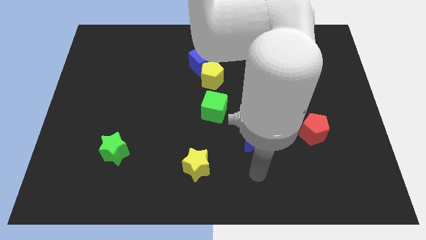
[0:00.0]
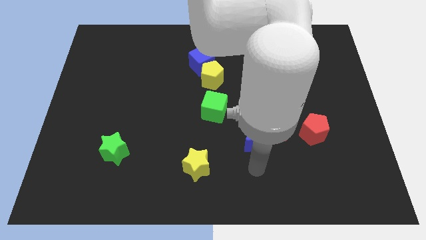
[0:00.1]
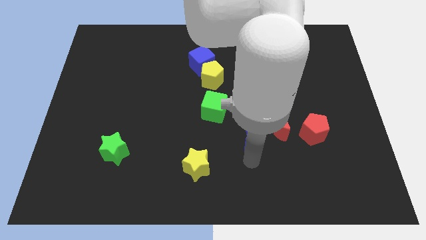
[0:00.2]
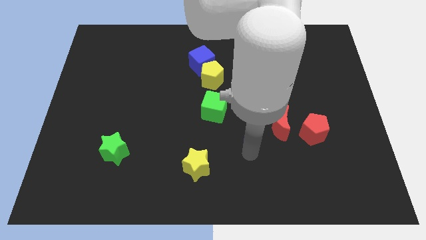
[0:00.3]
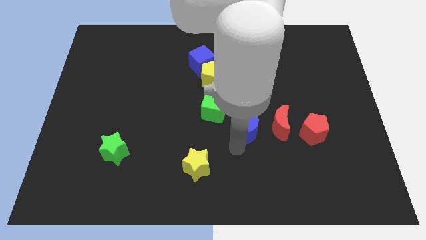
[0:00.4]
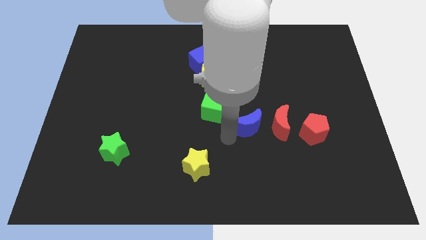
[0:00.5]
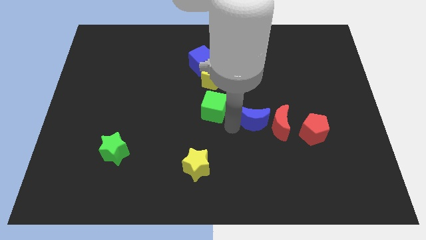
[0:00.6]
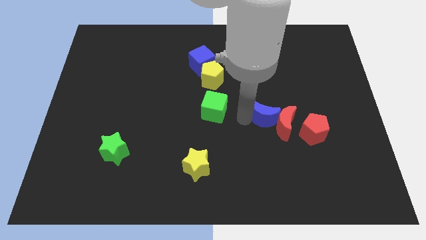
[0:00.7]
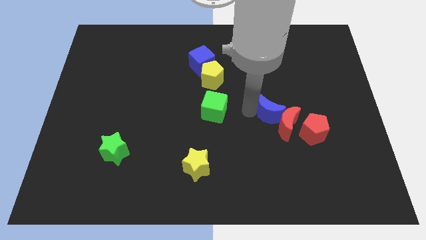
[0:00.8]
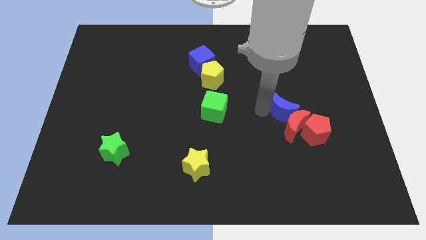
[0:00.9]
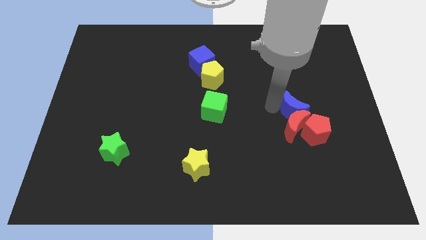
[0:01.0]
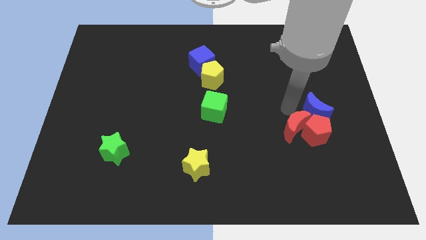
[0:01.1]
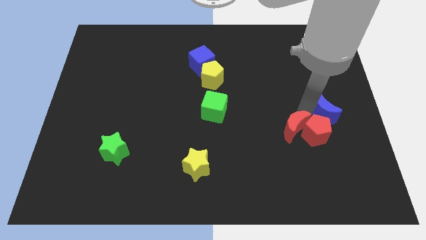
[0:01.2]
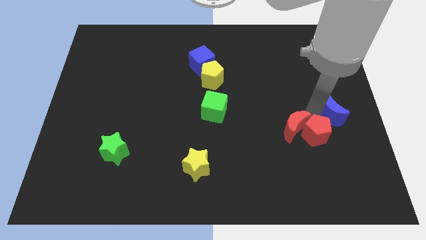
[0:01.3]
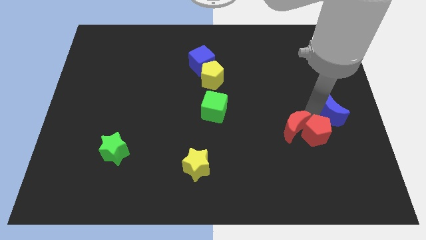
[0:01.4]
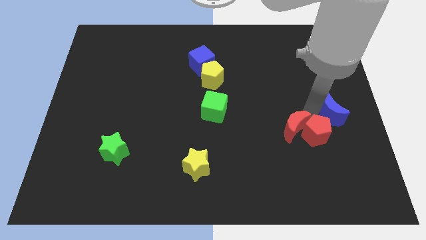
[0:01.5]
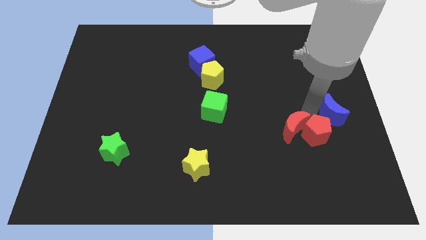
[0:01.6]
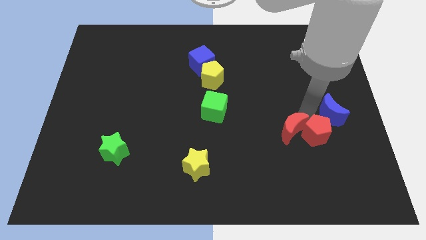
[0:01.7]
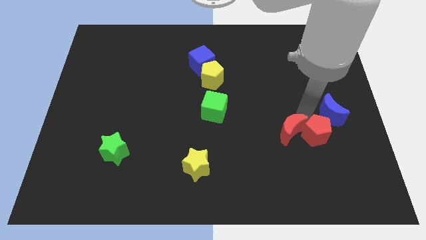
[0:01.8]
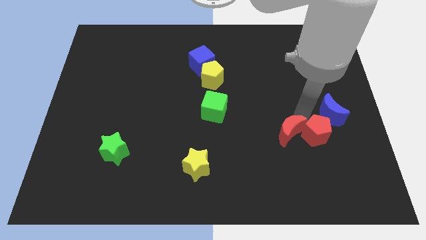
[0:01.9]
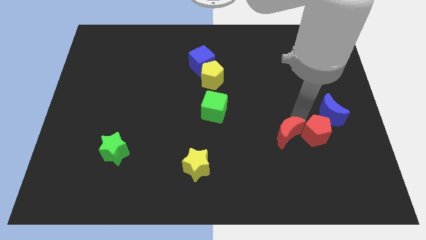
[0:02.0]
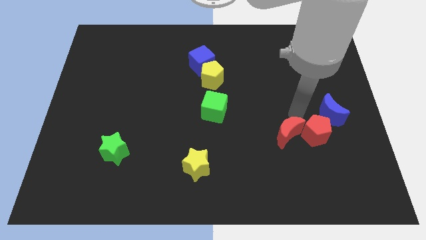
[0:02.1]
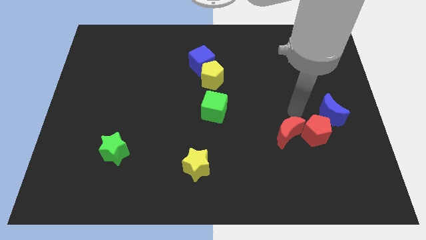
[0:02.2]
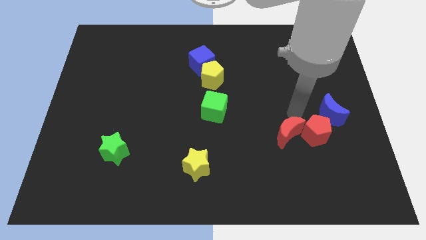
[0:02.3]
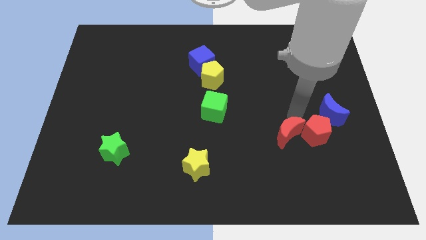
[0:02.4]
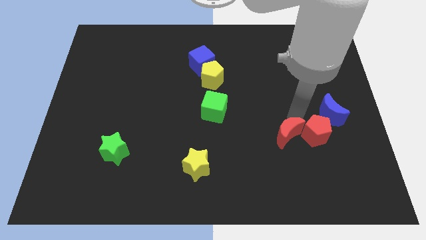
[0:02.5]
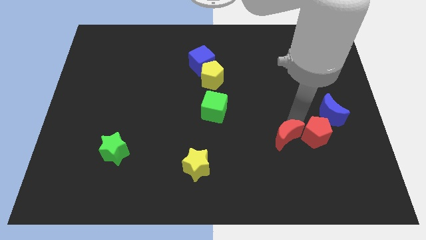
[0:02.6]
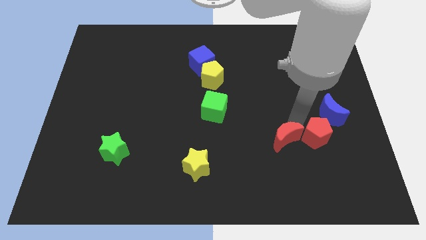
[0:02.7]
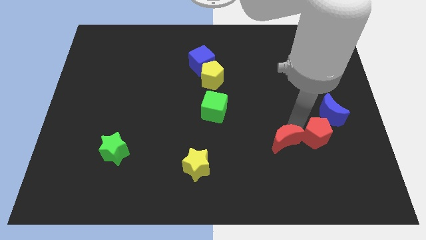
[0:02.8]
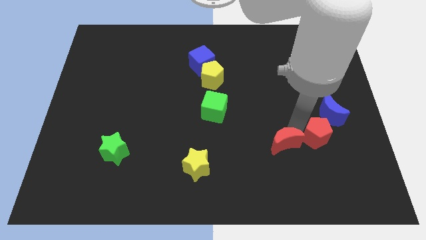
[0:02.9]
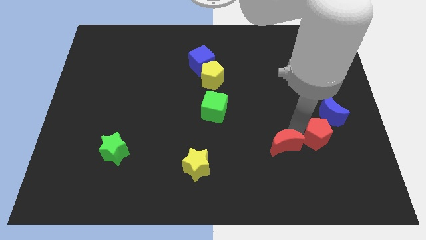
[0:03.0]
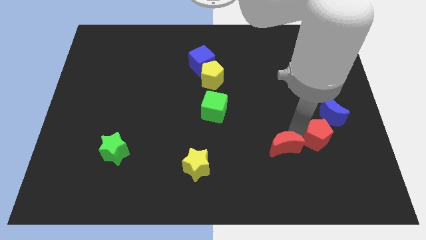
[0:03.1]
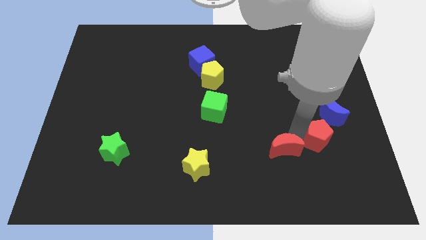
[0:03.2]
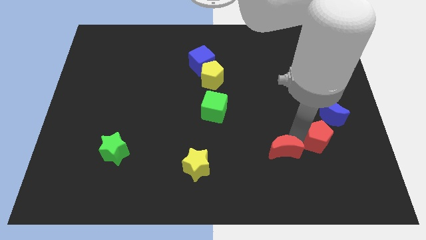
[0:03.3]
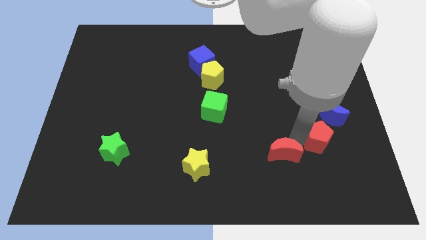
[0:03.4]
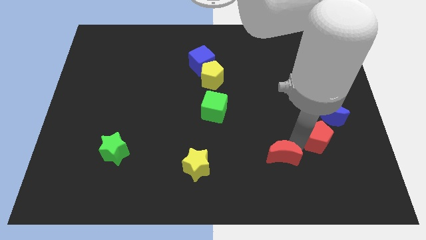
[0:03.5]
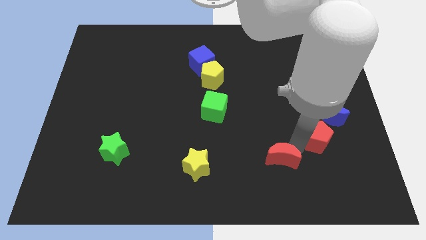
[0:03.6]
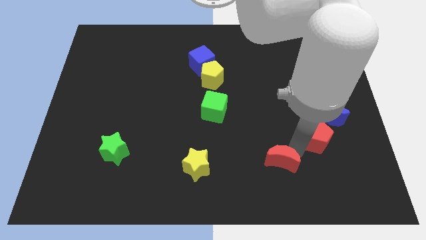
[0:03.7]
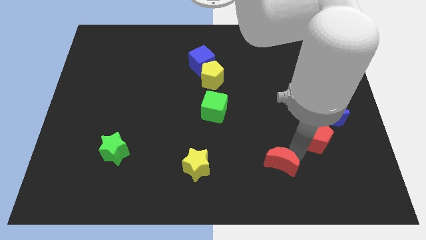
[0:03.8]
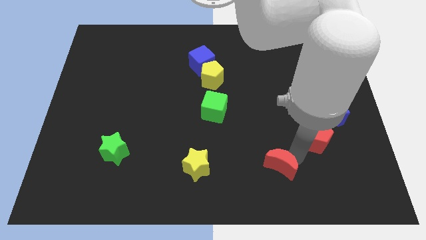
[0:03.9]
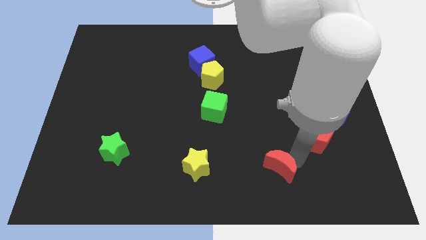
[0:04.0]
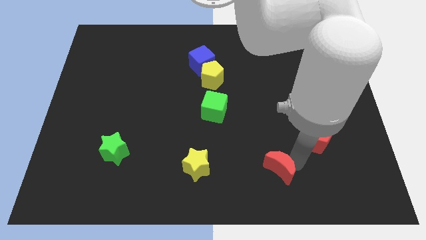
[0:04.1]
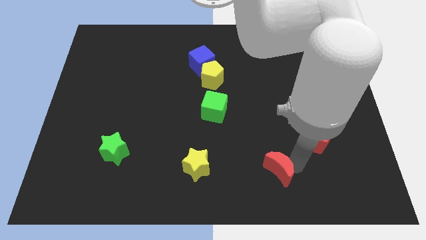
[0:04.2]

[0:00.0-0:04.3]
slightly slide the red moon downwards and left

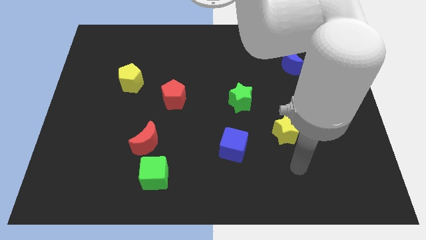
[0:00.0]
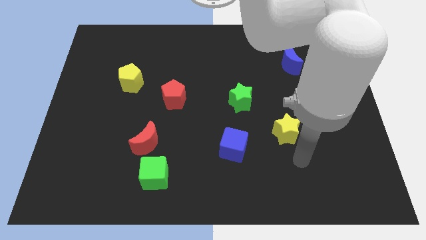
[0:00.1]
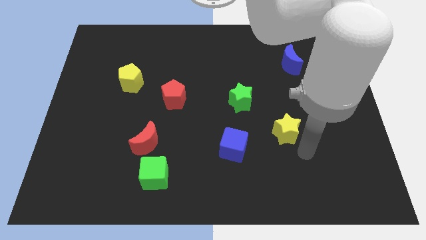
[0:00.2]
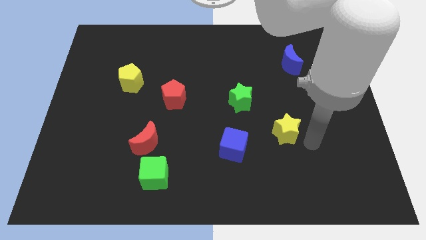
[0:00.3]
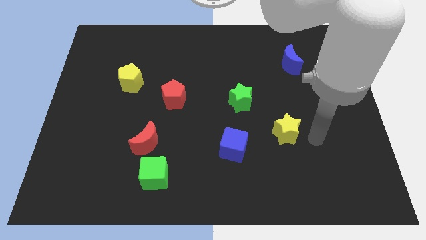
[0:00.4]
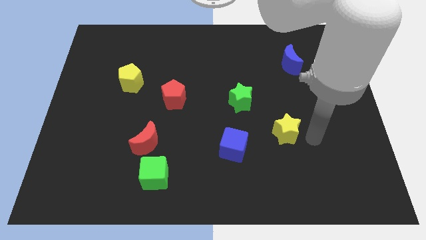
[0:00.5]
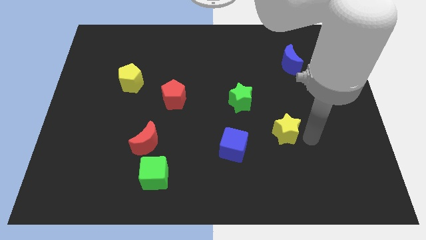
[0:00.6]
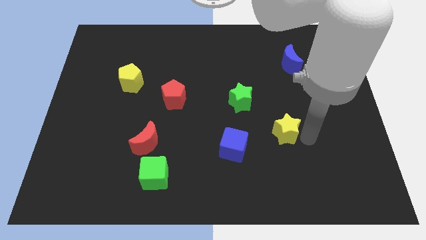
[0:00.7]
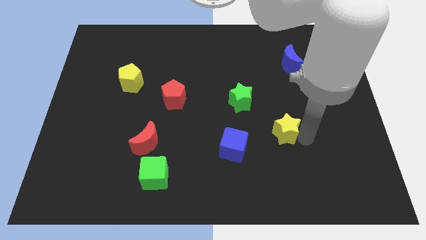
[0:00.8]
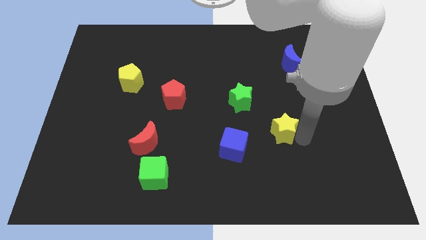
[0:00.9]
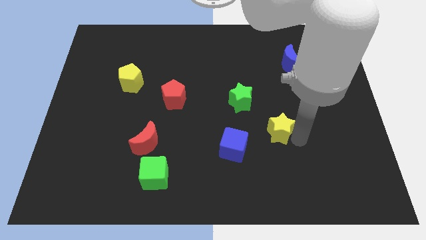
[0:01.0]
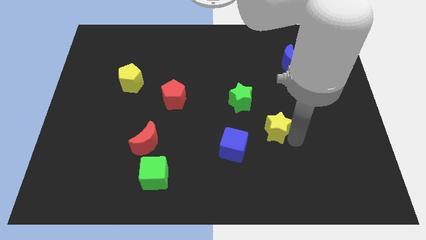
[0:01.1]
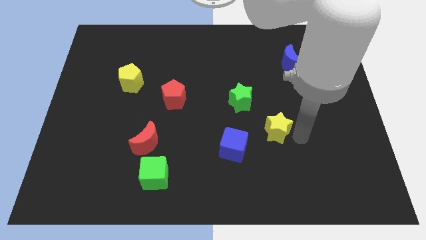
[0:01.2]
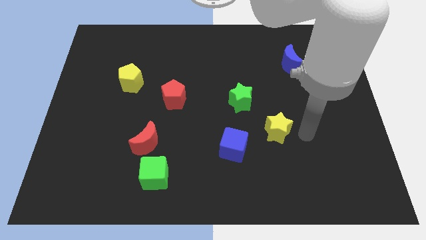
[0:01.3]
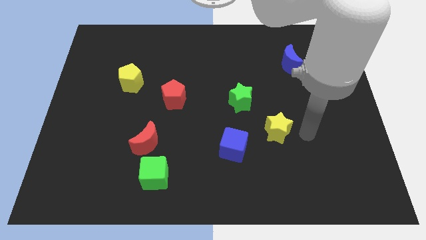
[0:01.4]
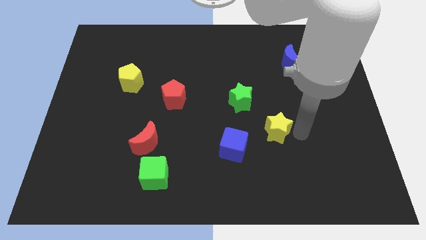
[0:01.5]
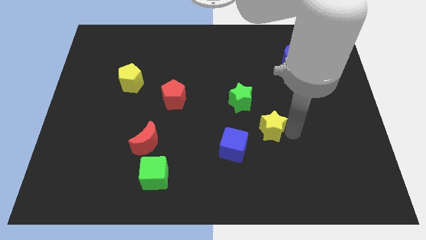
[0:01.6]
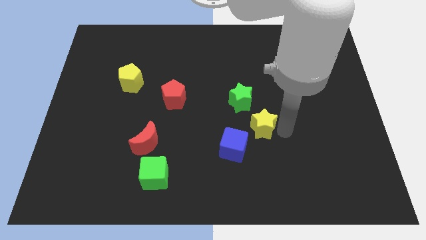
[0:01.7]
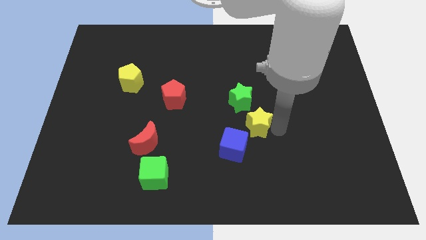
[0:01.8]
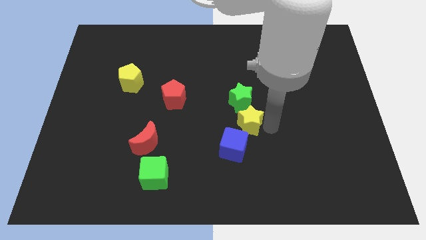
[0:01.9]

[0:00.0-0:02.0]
slightly move the yellow star to the left

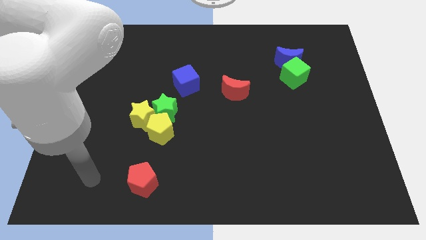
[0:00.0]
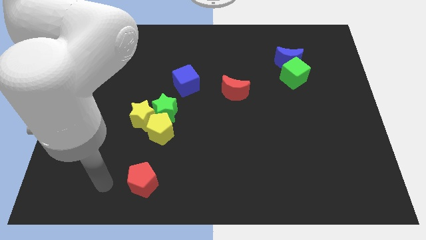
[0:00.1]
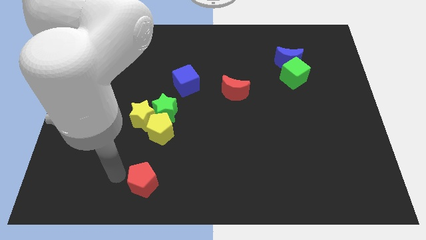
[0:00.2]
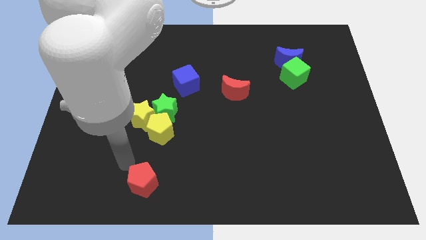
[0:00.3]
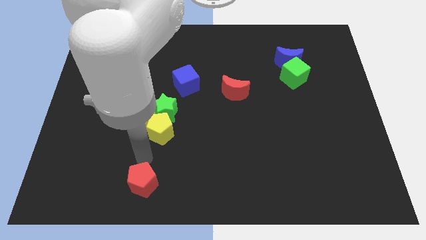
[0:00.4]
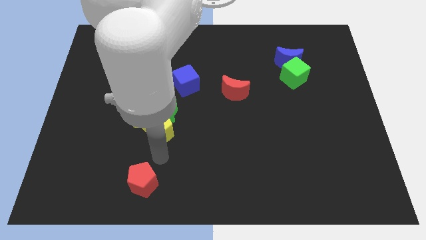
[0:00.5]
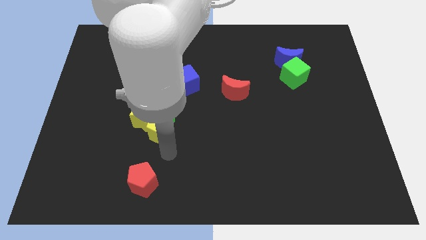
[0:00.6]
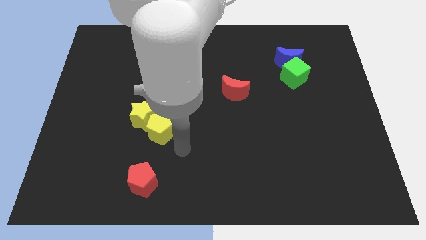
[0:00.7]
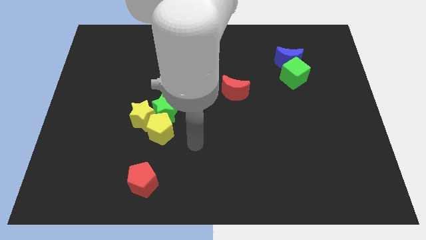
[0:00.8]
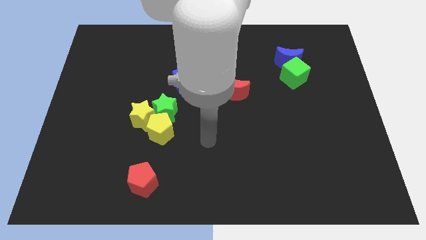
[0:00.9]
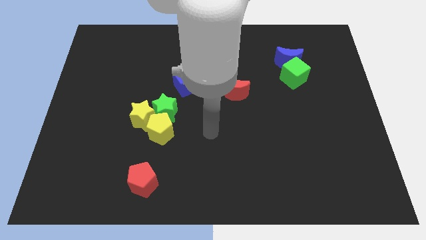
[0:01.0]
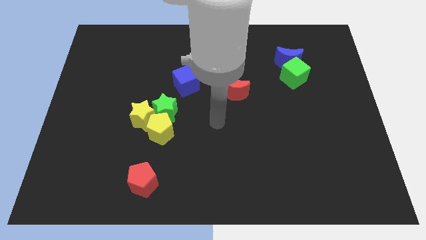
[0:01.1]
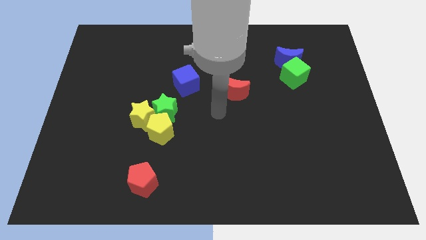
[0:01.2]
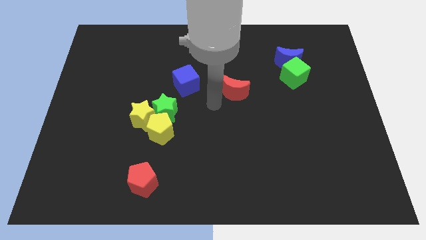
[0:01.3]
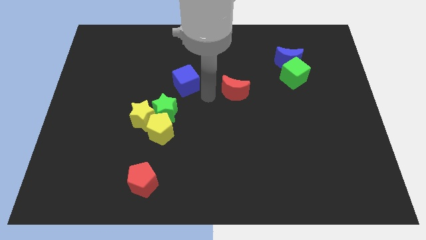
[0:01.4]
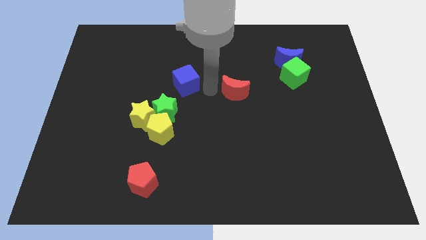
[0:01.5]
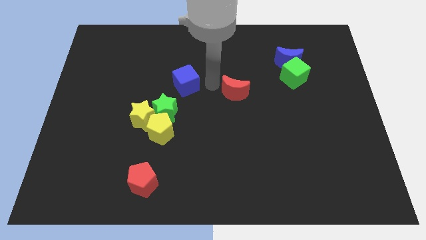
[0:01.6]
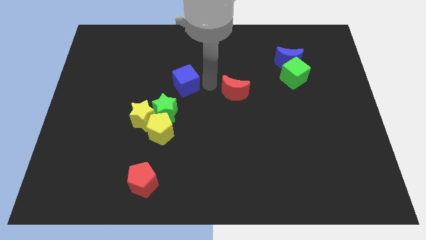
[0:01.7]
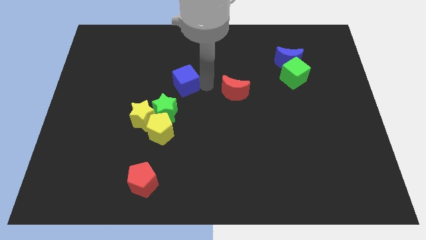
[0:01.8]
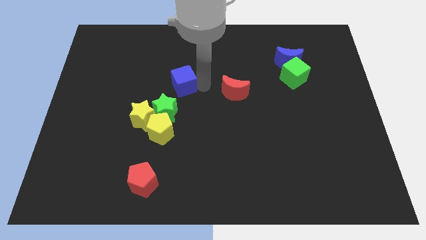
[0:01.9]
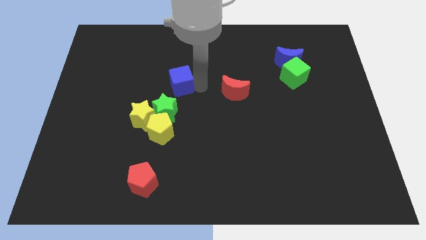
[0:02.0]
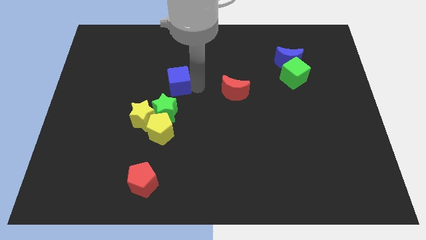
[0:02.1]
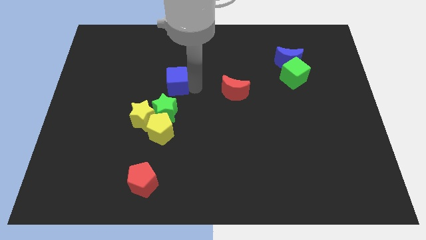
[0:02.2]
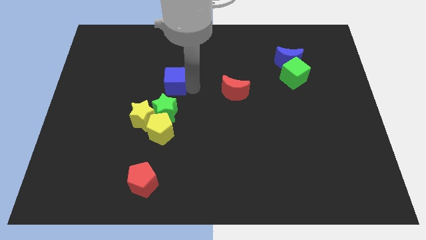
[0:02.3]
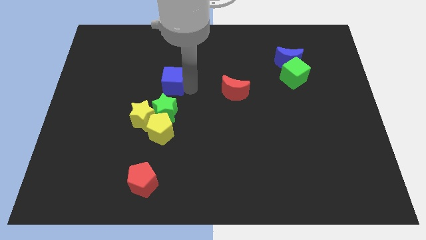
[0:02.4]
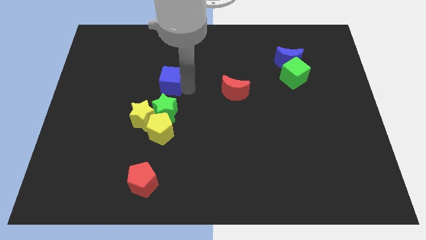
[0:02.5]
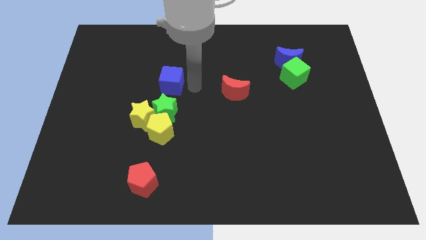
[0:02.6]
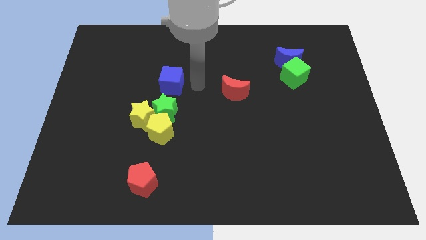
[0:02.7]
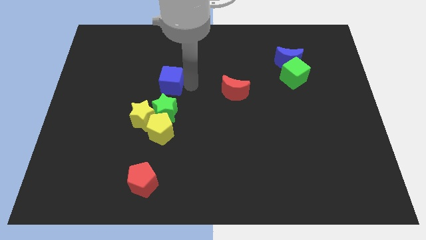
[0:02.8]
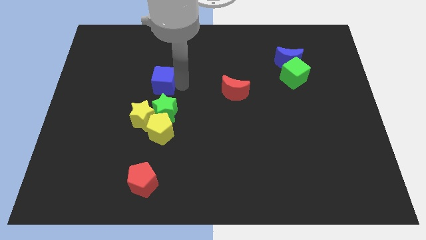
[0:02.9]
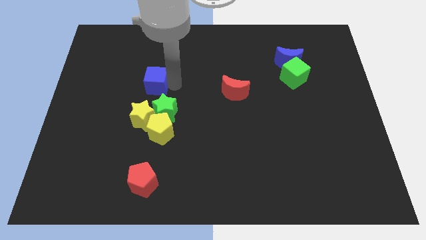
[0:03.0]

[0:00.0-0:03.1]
slide the blue cube a little bit left
